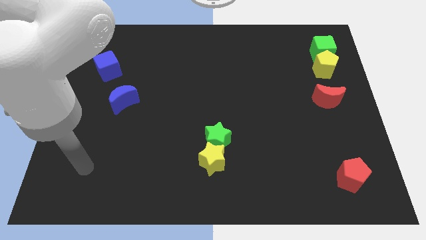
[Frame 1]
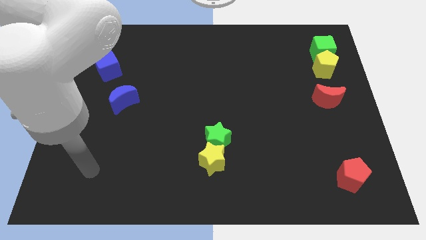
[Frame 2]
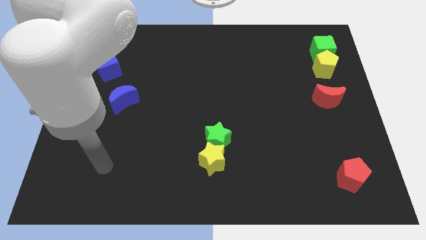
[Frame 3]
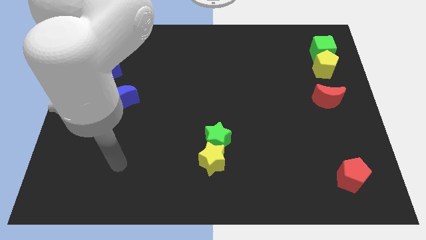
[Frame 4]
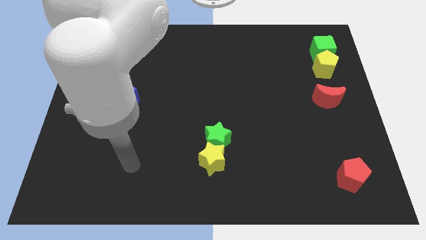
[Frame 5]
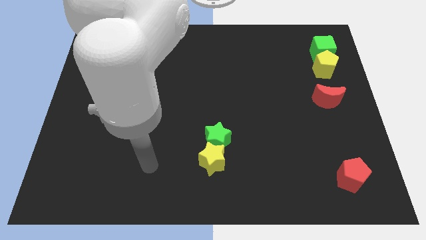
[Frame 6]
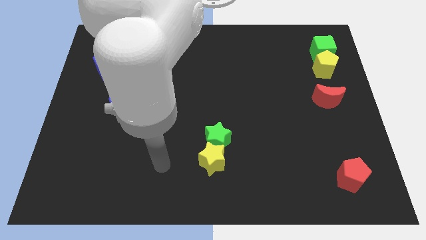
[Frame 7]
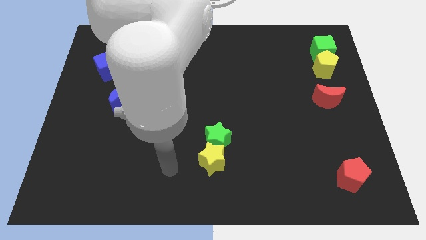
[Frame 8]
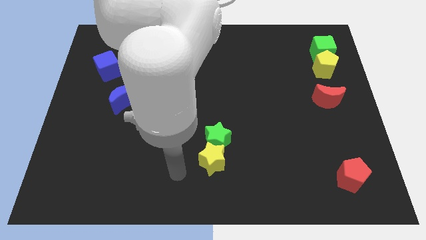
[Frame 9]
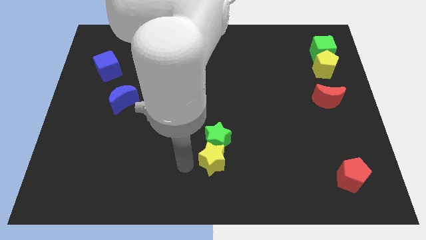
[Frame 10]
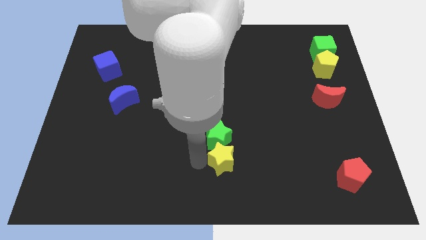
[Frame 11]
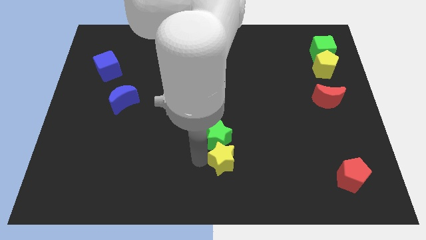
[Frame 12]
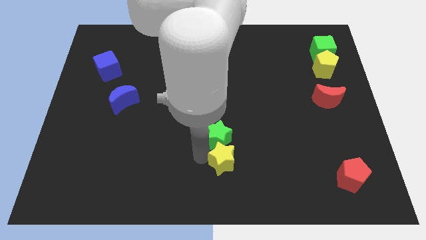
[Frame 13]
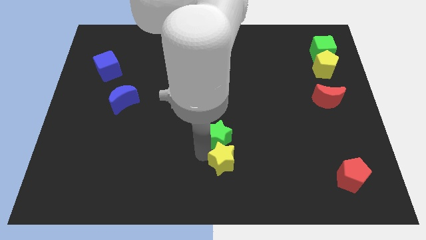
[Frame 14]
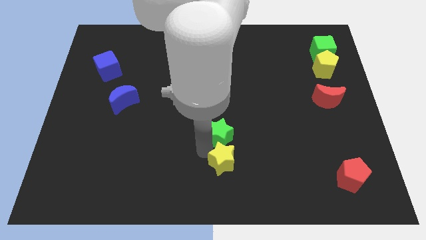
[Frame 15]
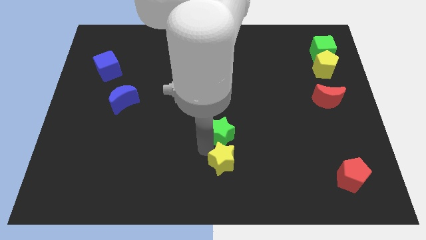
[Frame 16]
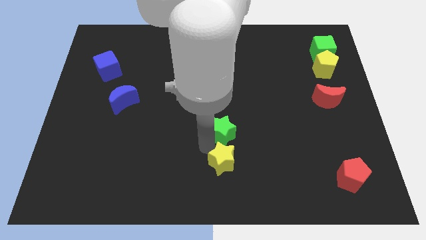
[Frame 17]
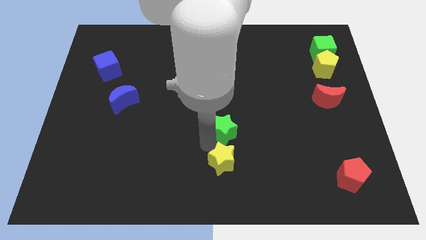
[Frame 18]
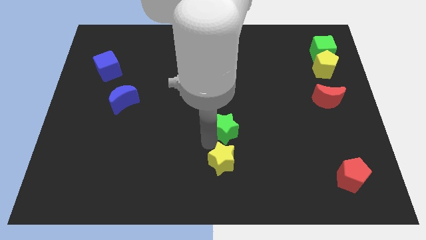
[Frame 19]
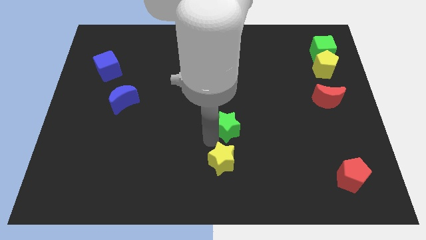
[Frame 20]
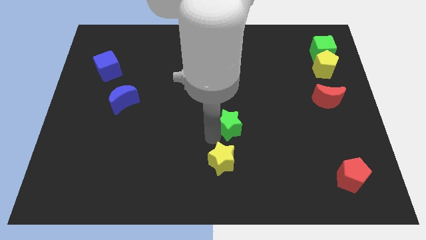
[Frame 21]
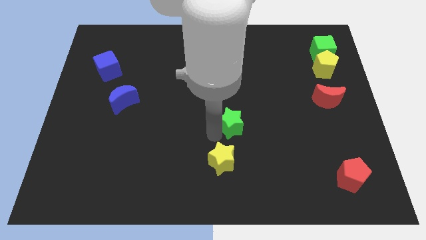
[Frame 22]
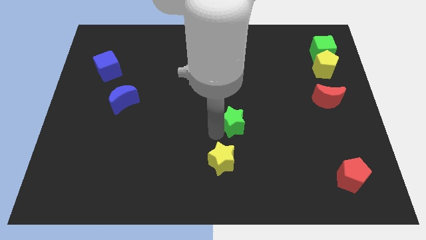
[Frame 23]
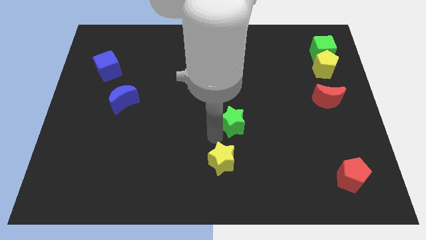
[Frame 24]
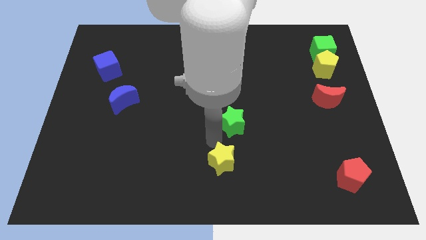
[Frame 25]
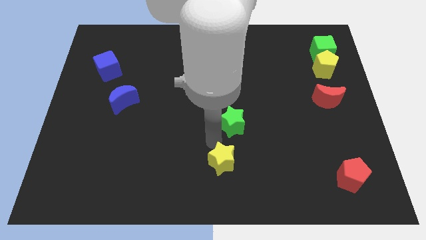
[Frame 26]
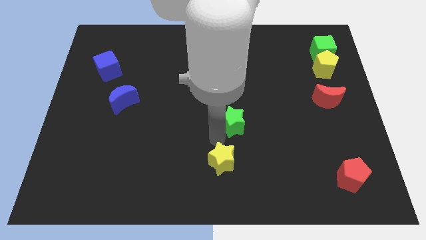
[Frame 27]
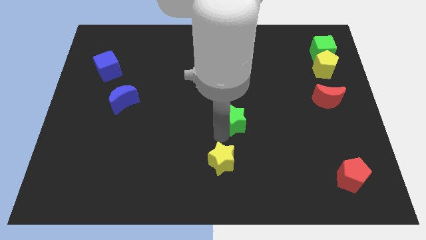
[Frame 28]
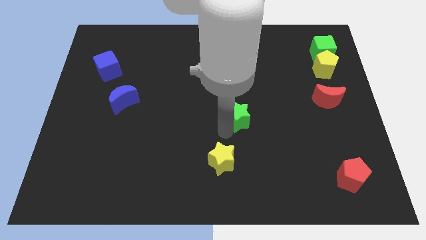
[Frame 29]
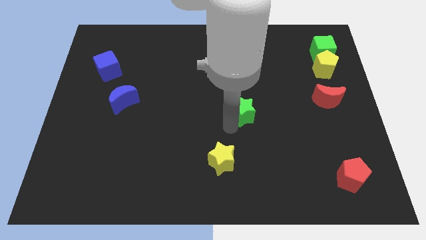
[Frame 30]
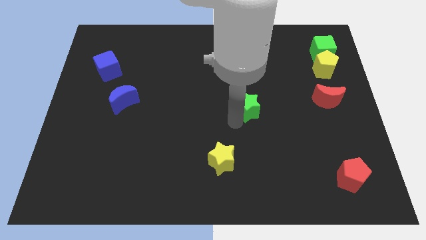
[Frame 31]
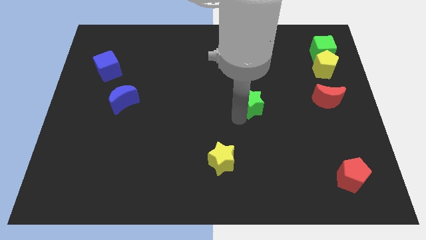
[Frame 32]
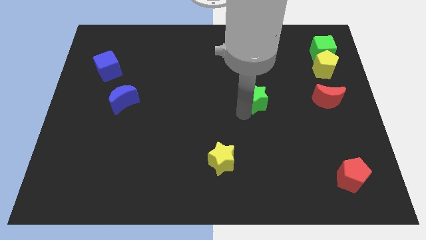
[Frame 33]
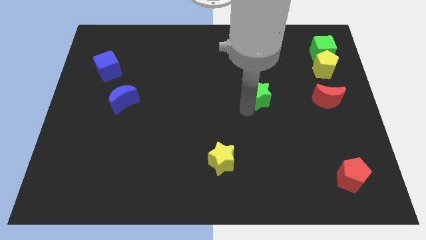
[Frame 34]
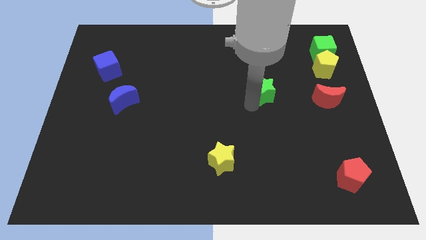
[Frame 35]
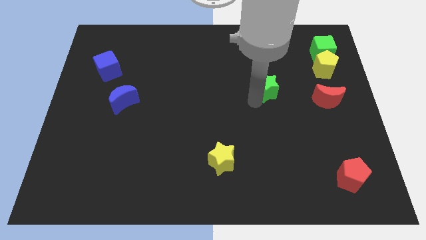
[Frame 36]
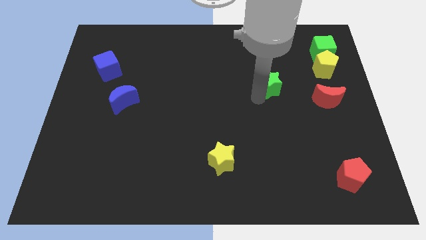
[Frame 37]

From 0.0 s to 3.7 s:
move the green star upwards and to the right diagonally

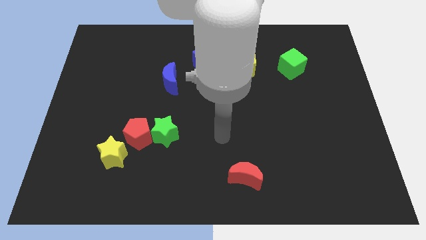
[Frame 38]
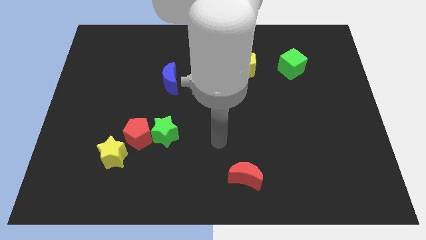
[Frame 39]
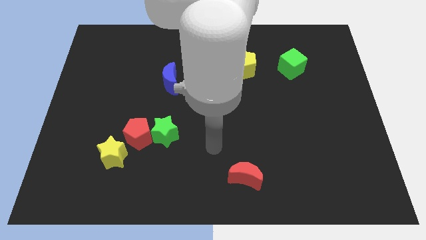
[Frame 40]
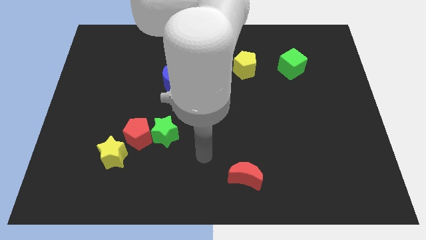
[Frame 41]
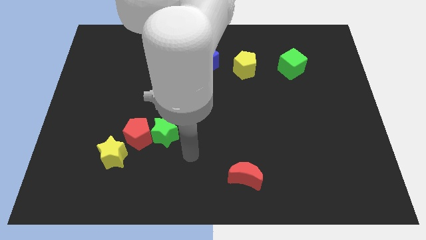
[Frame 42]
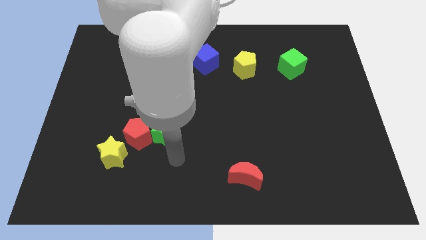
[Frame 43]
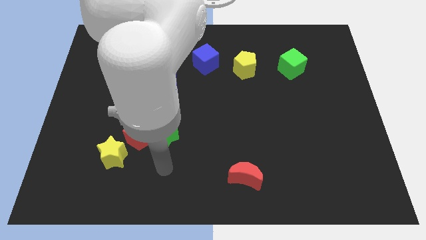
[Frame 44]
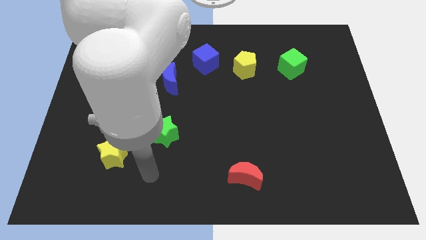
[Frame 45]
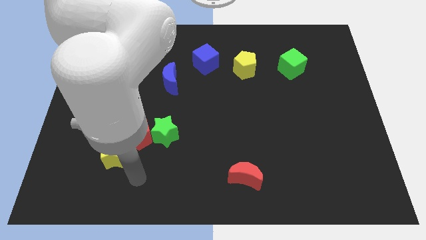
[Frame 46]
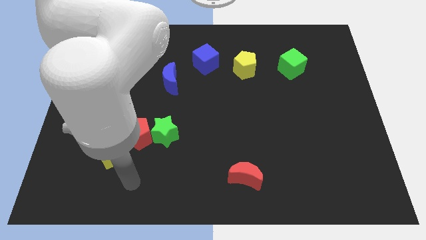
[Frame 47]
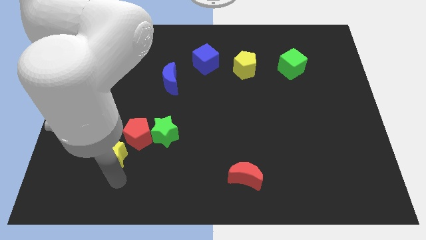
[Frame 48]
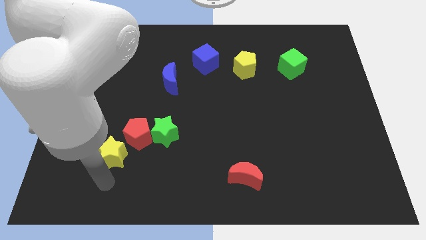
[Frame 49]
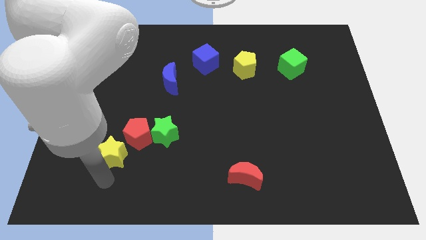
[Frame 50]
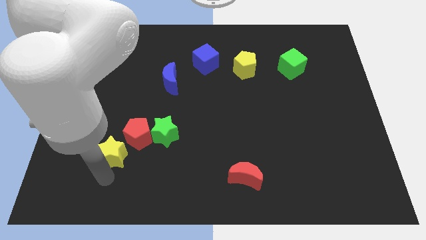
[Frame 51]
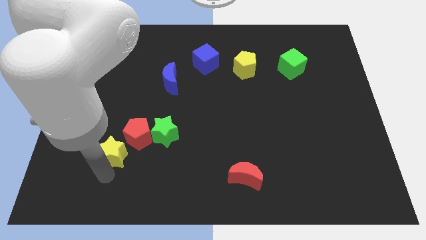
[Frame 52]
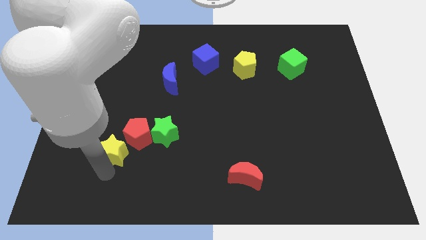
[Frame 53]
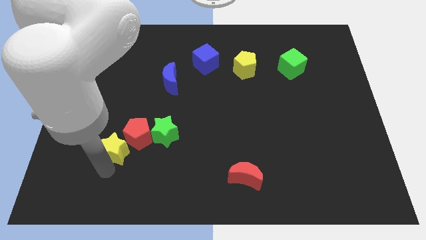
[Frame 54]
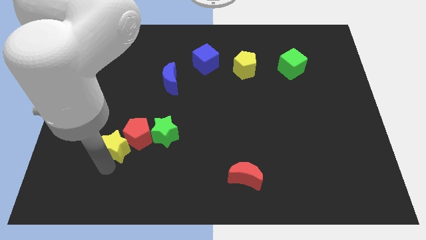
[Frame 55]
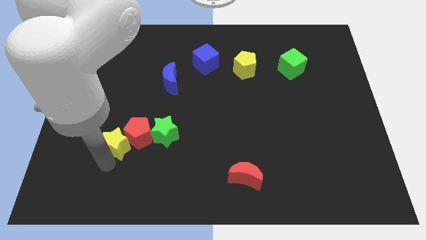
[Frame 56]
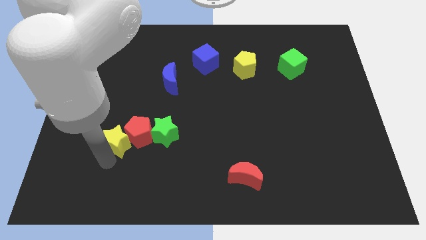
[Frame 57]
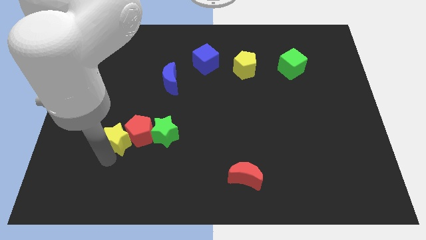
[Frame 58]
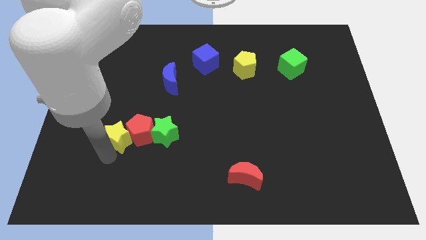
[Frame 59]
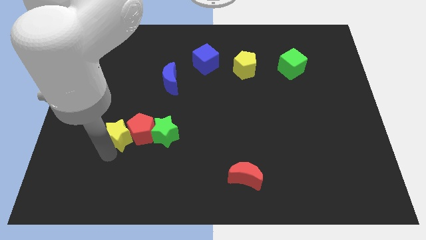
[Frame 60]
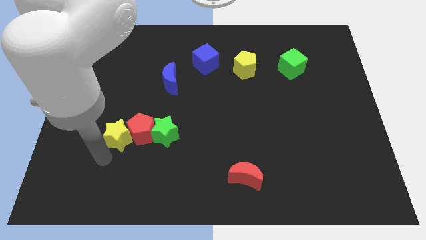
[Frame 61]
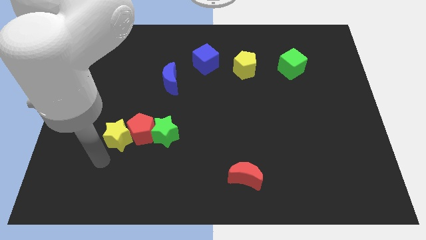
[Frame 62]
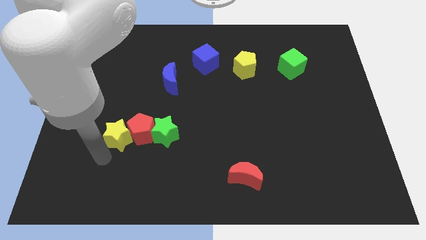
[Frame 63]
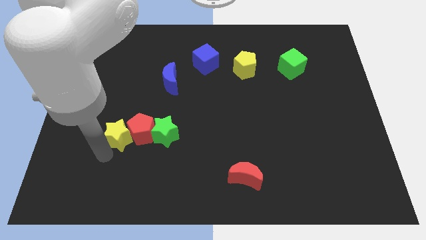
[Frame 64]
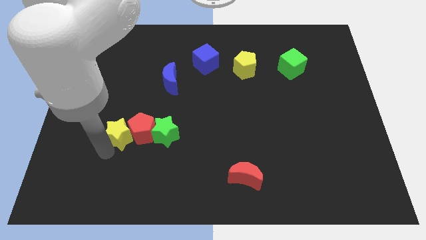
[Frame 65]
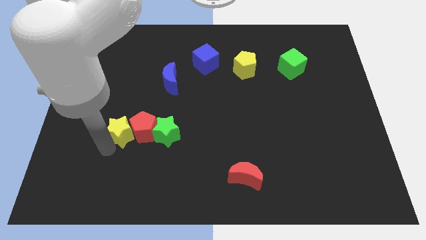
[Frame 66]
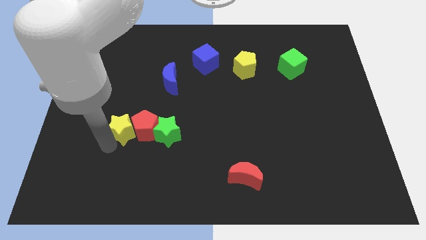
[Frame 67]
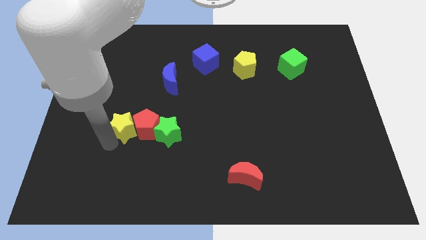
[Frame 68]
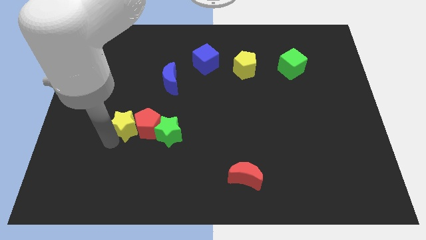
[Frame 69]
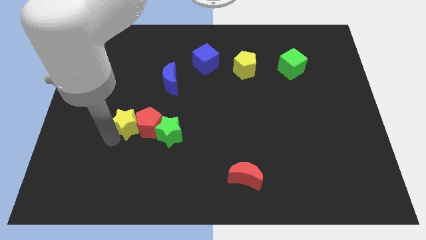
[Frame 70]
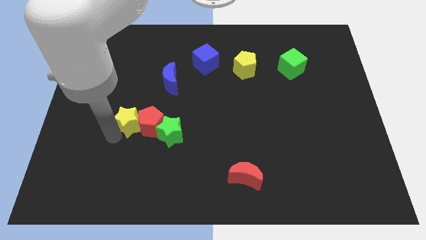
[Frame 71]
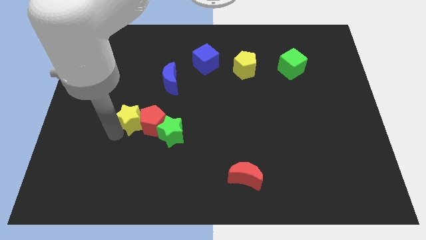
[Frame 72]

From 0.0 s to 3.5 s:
slide the yellow star upwards and then to the right a bit

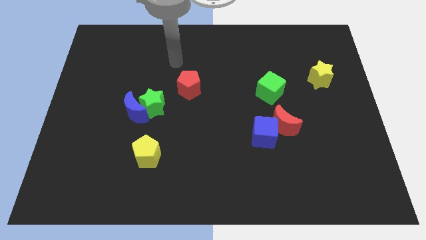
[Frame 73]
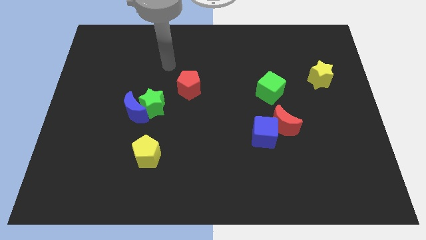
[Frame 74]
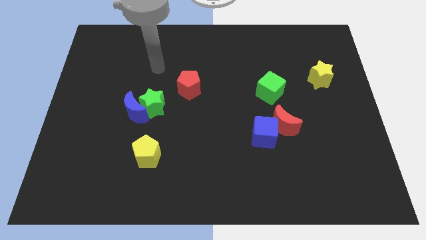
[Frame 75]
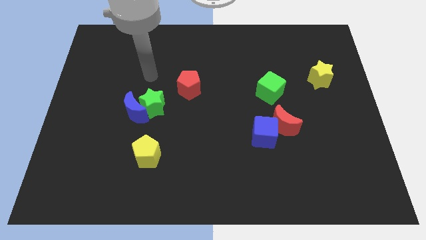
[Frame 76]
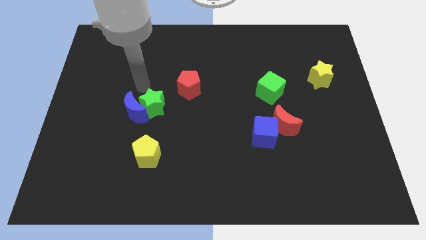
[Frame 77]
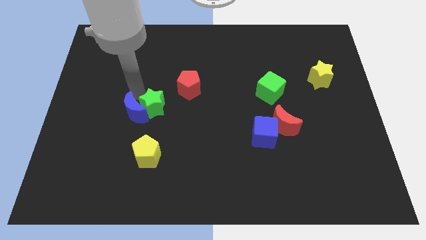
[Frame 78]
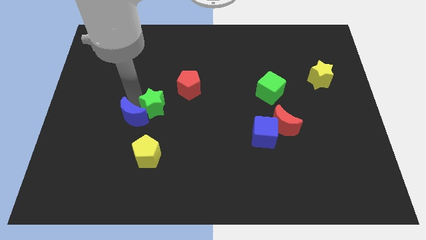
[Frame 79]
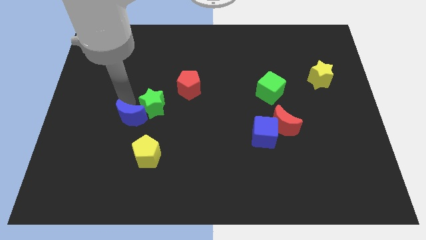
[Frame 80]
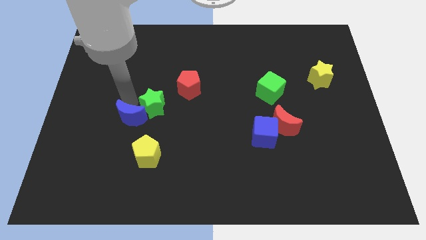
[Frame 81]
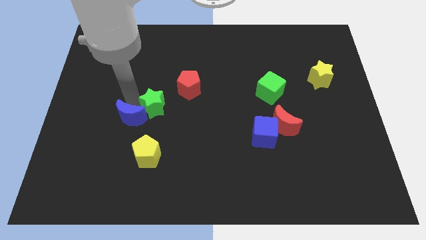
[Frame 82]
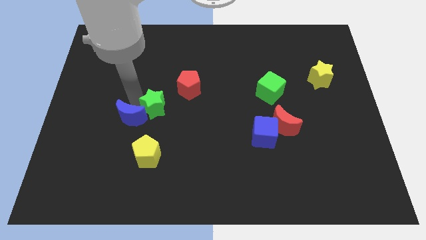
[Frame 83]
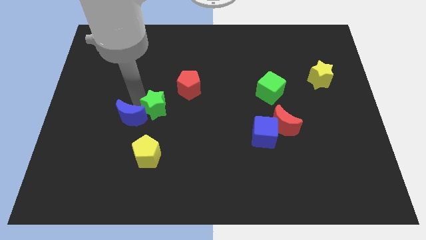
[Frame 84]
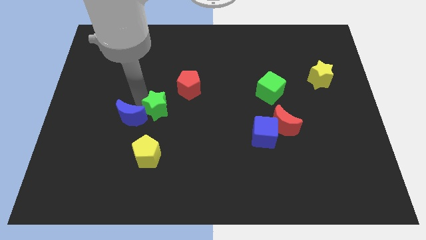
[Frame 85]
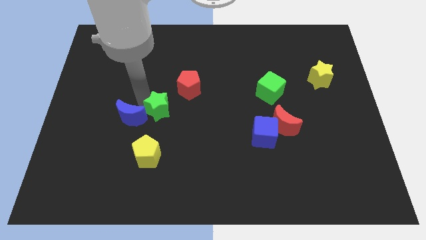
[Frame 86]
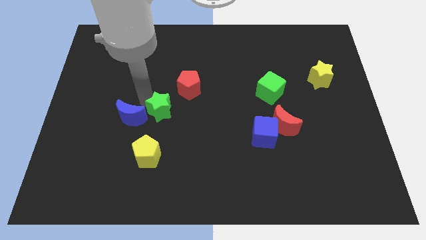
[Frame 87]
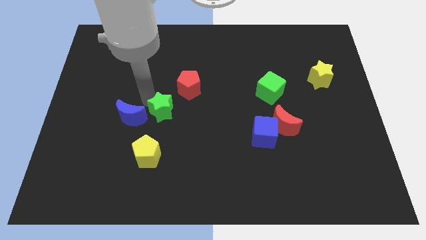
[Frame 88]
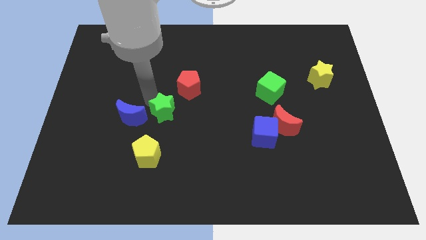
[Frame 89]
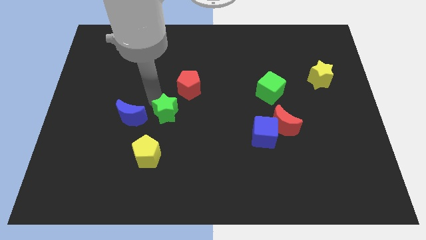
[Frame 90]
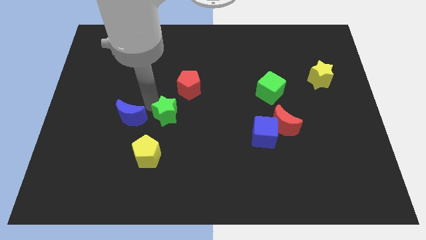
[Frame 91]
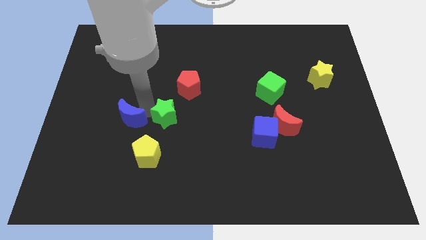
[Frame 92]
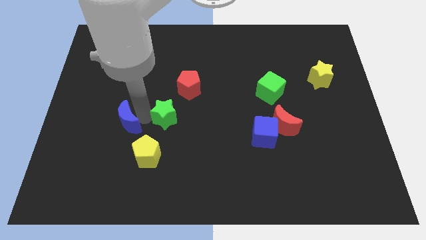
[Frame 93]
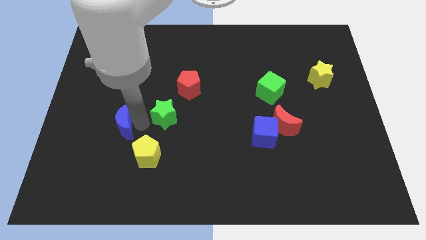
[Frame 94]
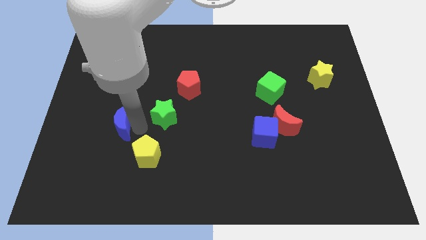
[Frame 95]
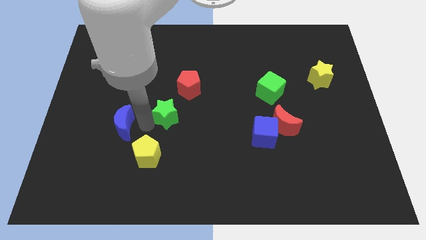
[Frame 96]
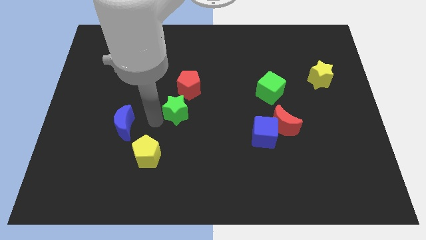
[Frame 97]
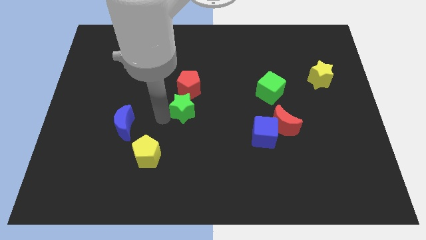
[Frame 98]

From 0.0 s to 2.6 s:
move the green star to the right a little
